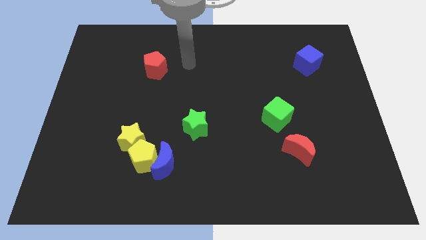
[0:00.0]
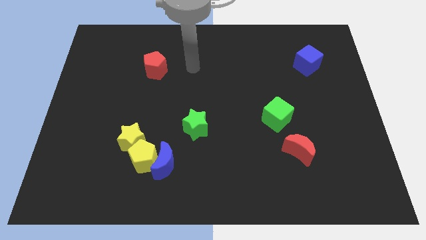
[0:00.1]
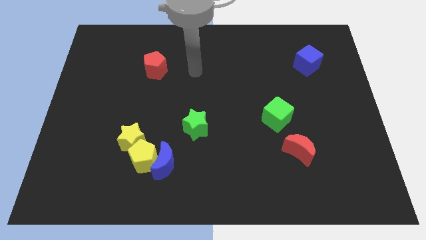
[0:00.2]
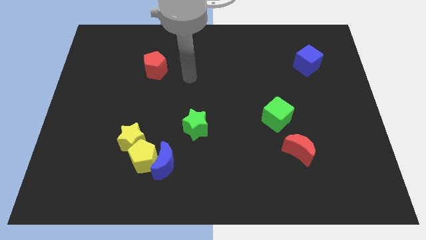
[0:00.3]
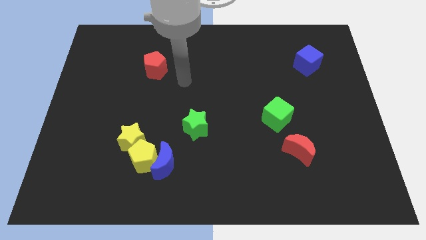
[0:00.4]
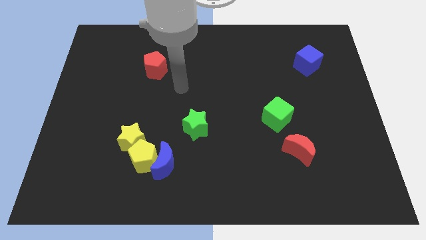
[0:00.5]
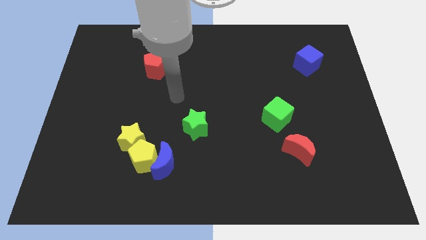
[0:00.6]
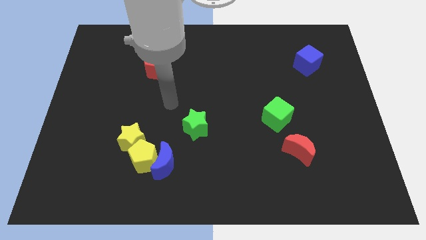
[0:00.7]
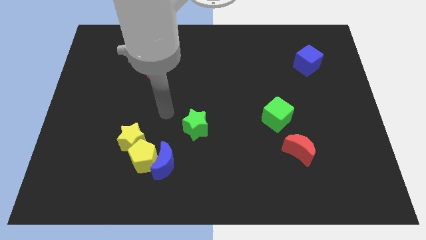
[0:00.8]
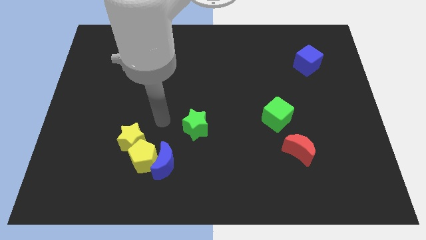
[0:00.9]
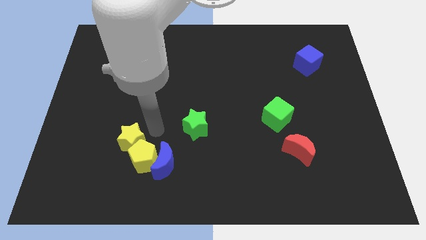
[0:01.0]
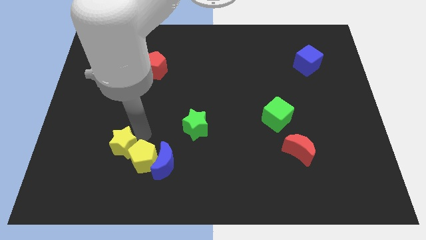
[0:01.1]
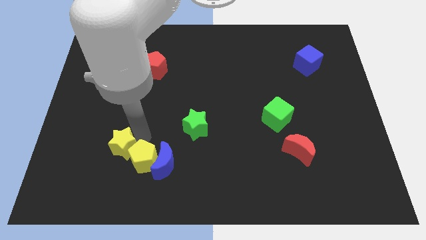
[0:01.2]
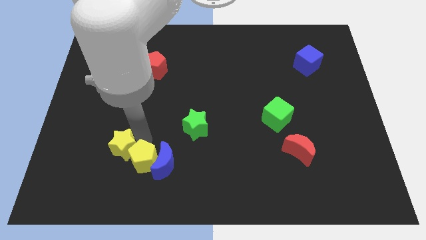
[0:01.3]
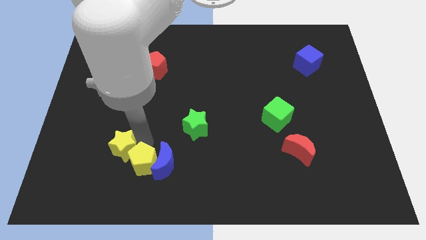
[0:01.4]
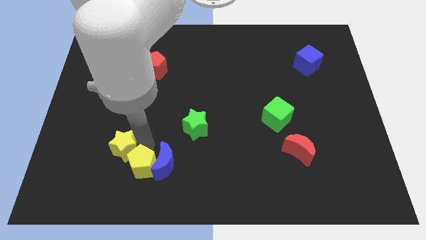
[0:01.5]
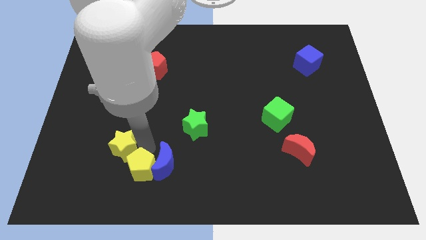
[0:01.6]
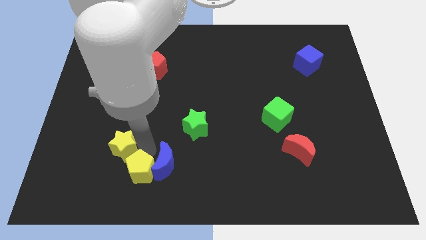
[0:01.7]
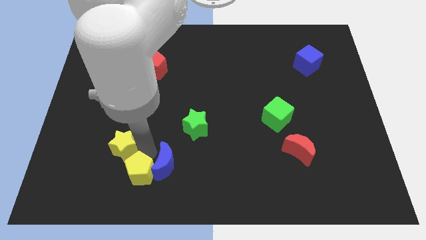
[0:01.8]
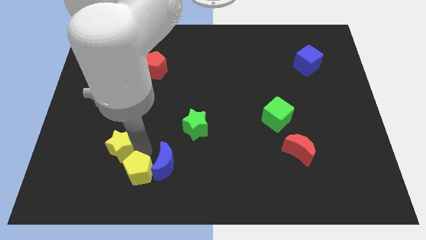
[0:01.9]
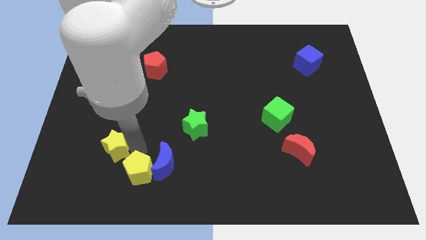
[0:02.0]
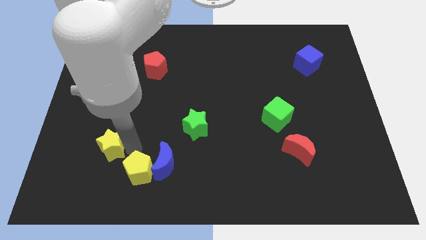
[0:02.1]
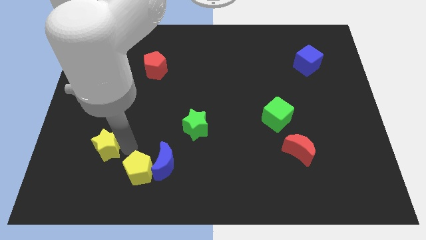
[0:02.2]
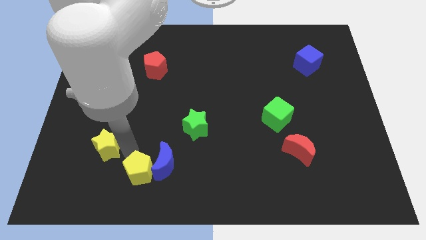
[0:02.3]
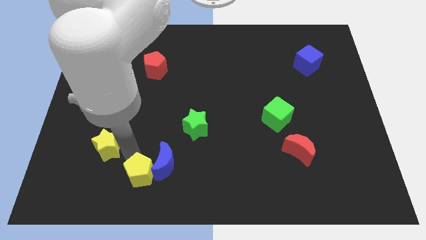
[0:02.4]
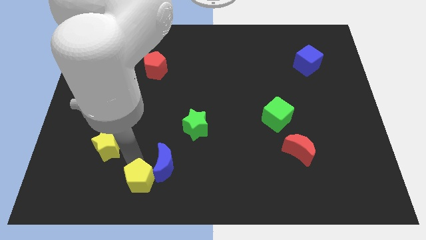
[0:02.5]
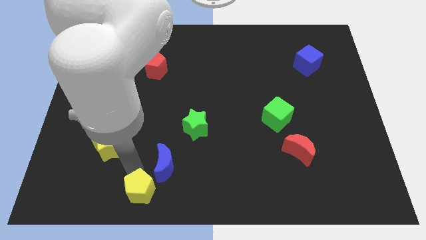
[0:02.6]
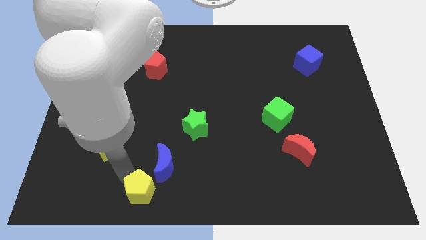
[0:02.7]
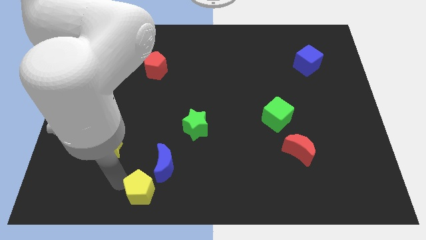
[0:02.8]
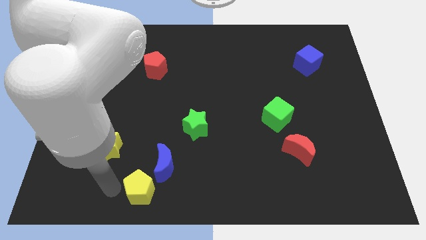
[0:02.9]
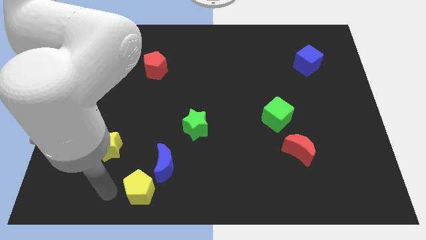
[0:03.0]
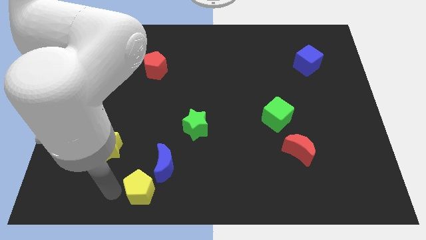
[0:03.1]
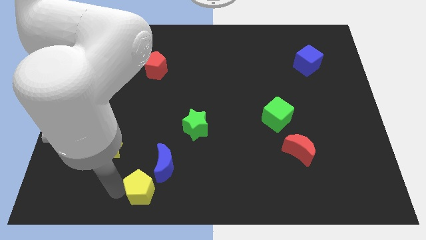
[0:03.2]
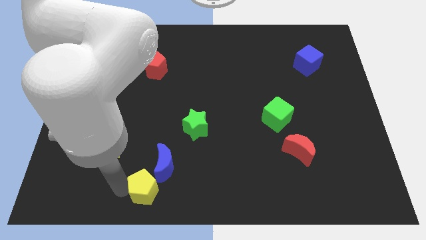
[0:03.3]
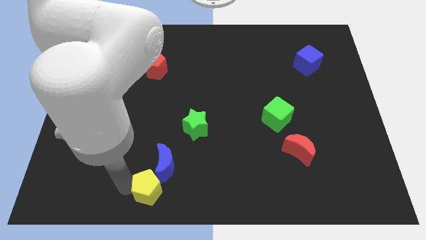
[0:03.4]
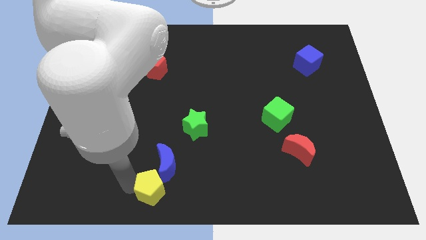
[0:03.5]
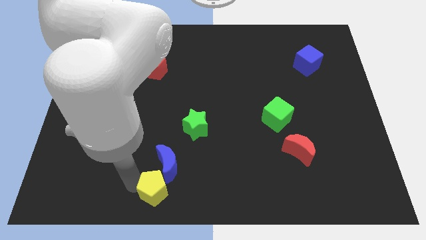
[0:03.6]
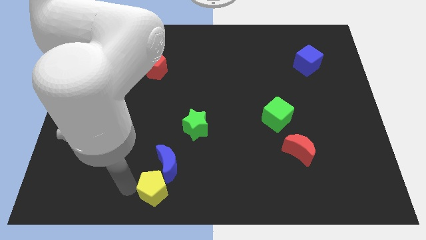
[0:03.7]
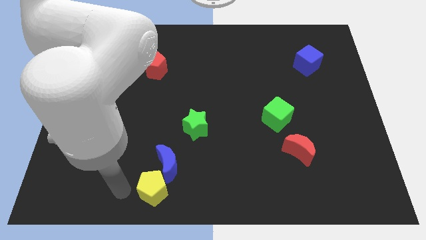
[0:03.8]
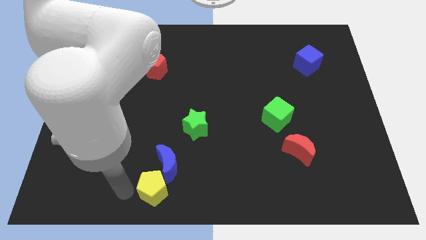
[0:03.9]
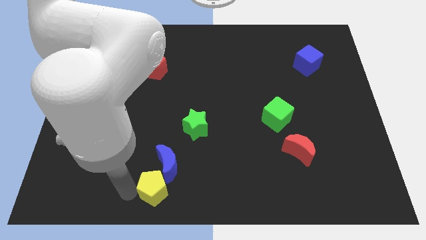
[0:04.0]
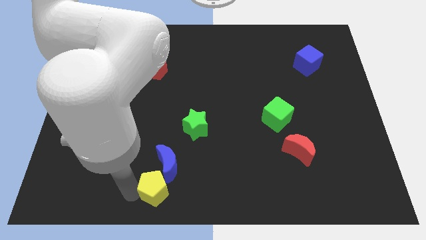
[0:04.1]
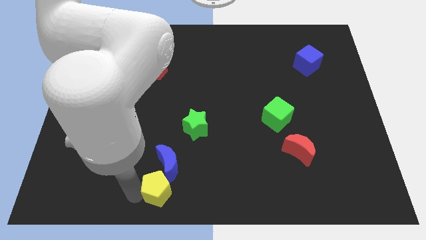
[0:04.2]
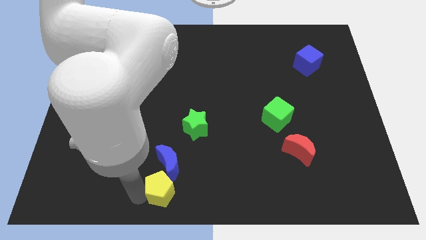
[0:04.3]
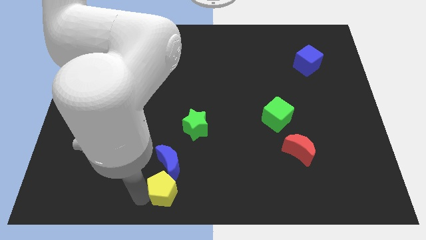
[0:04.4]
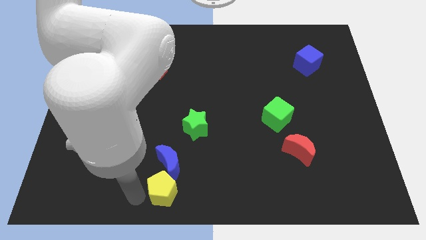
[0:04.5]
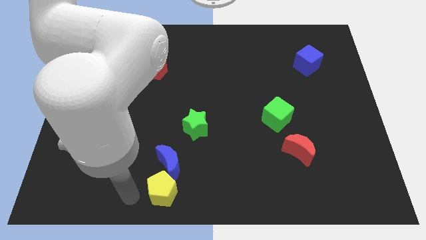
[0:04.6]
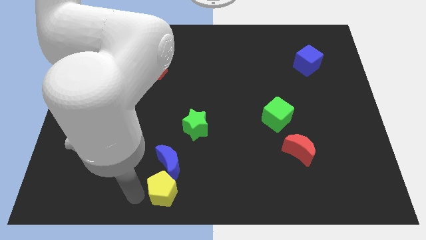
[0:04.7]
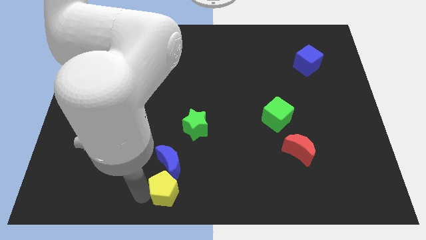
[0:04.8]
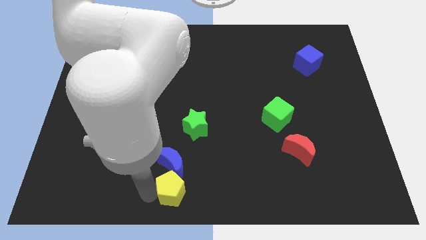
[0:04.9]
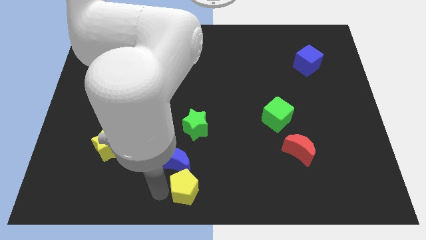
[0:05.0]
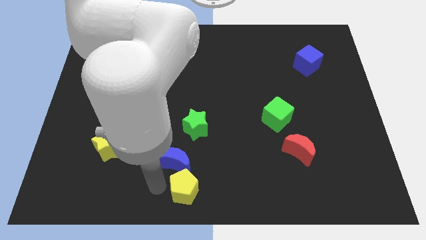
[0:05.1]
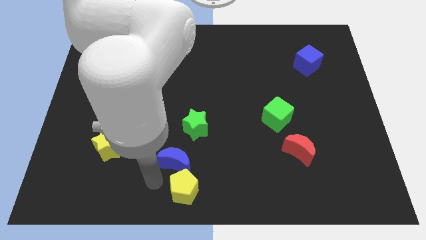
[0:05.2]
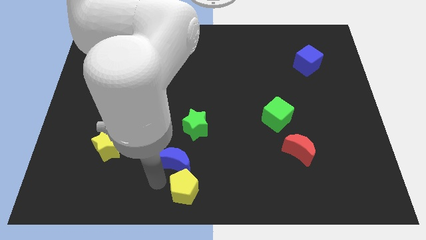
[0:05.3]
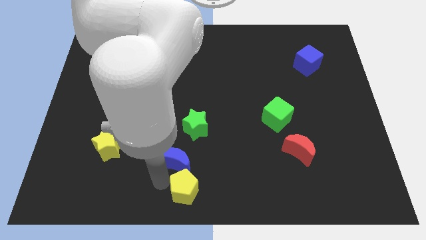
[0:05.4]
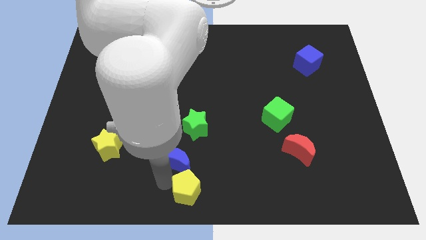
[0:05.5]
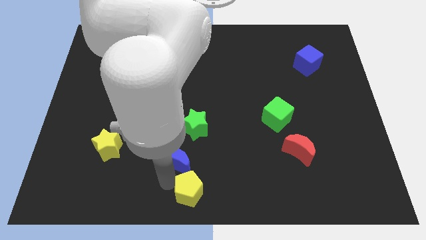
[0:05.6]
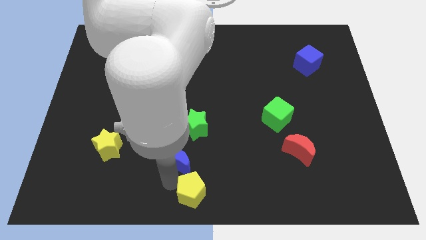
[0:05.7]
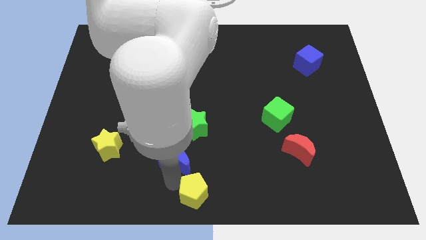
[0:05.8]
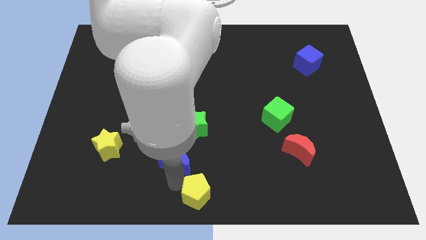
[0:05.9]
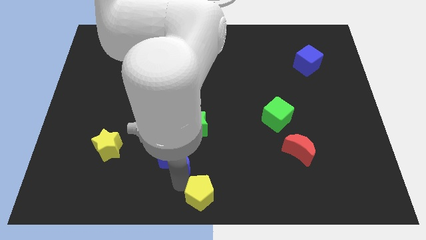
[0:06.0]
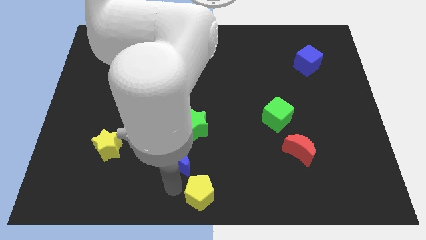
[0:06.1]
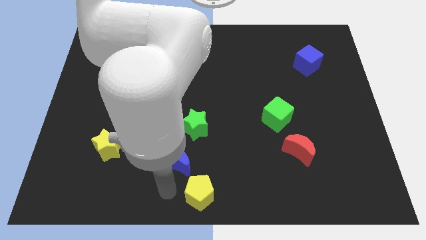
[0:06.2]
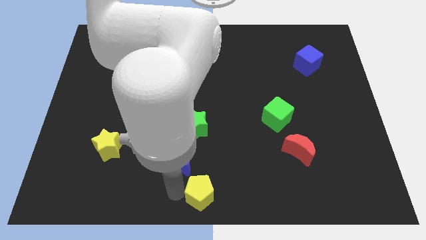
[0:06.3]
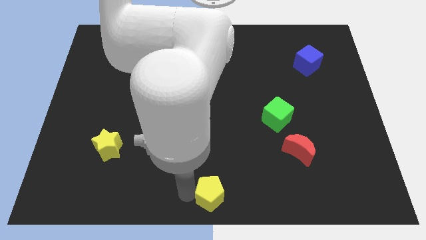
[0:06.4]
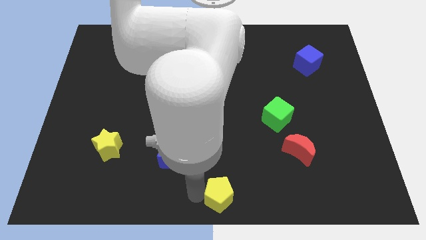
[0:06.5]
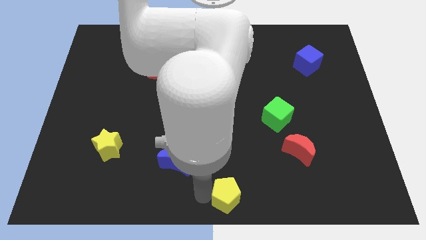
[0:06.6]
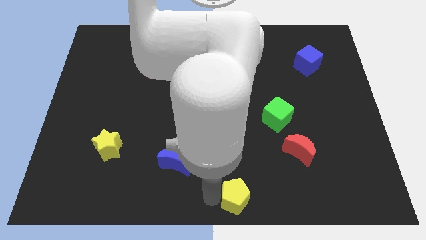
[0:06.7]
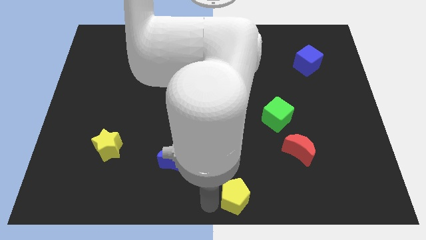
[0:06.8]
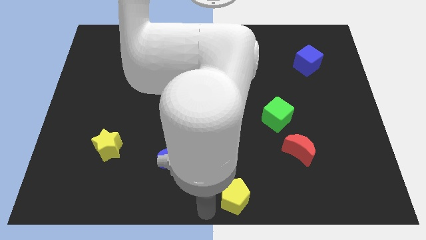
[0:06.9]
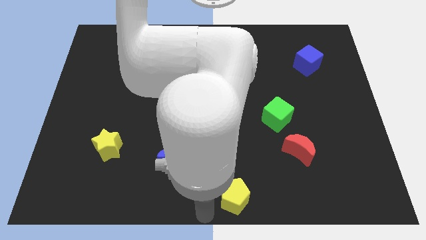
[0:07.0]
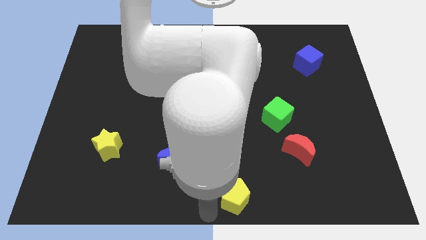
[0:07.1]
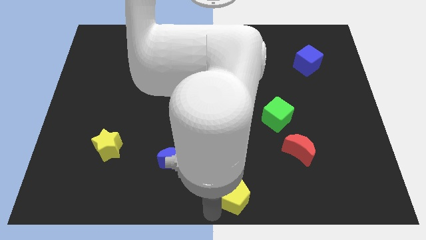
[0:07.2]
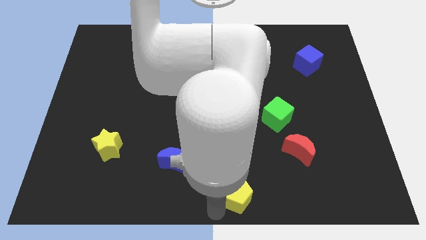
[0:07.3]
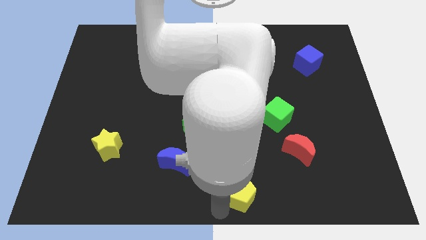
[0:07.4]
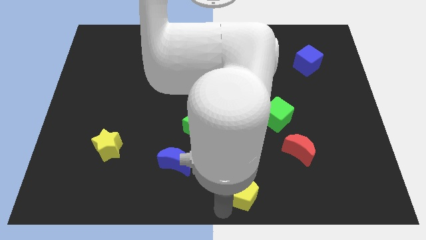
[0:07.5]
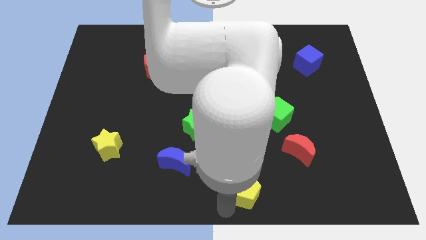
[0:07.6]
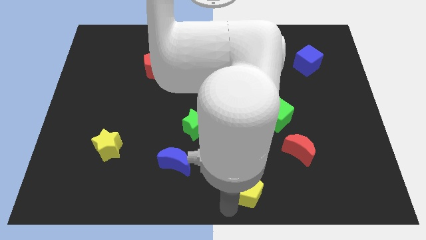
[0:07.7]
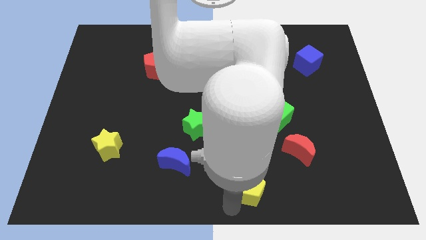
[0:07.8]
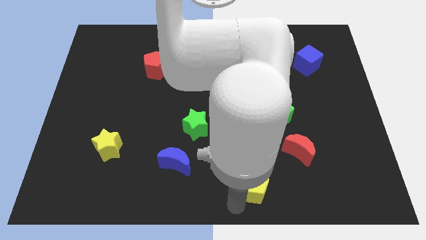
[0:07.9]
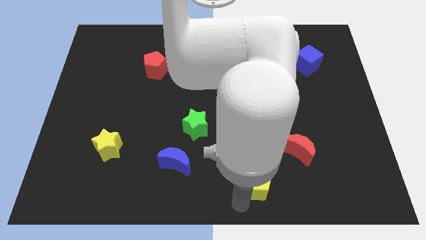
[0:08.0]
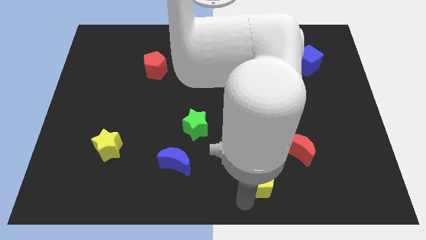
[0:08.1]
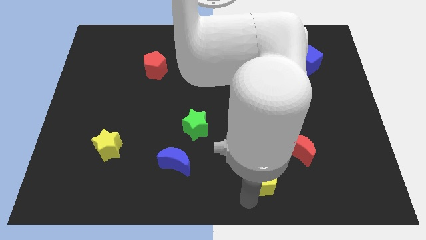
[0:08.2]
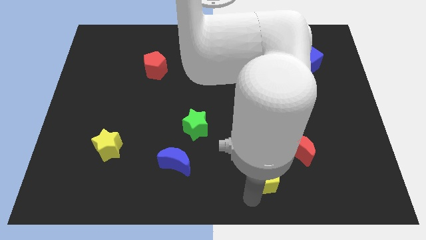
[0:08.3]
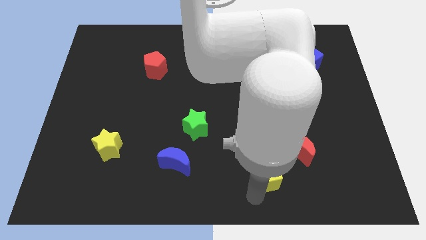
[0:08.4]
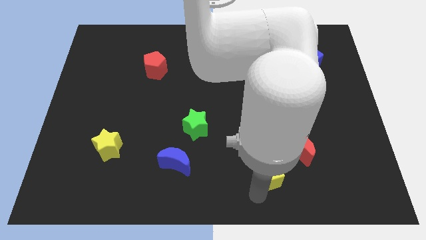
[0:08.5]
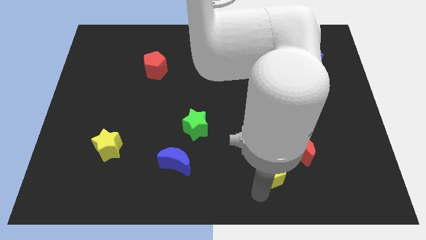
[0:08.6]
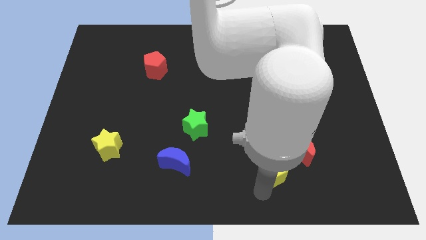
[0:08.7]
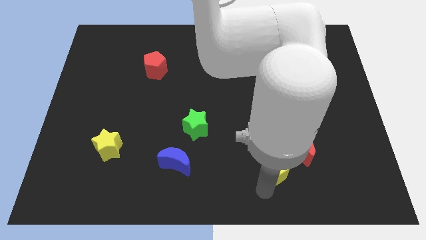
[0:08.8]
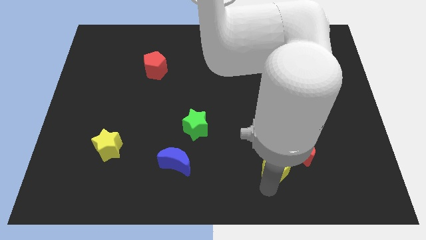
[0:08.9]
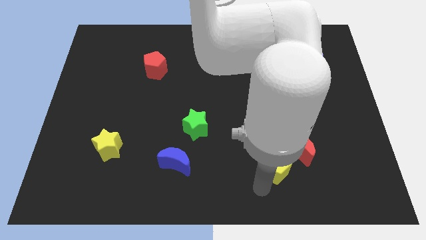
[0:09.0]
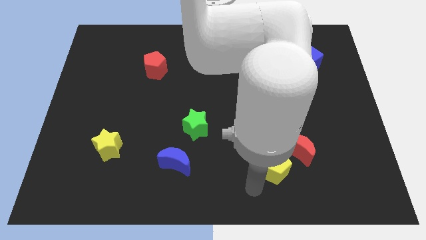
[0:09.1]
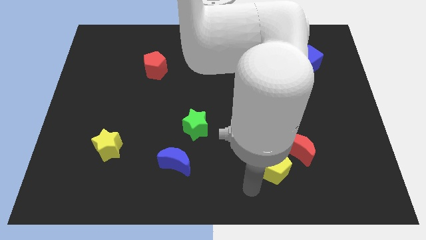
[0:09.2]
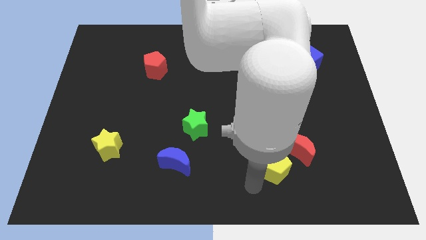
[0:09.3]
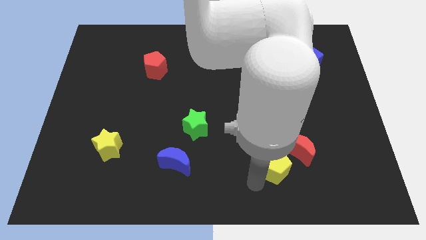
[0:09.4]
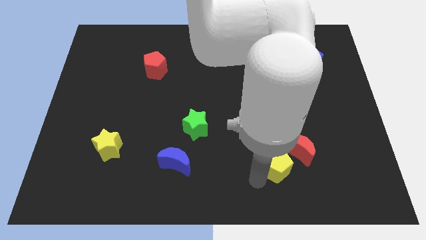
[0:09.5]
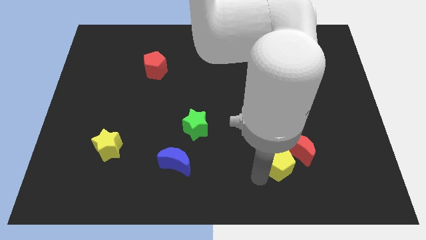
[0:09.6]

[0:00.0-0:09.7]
put the yellow pentagon close to the red moon
